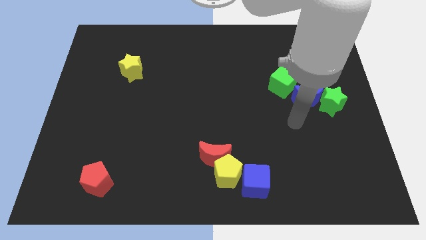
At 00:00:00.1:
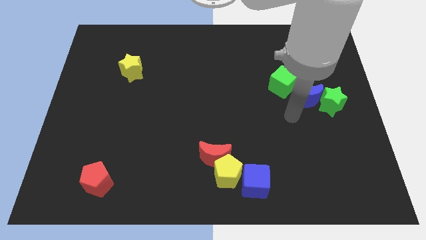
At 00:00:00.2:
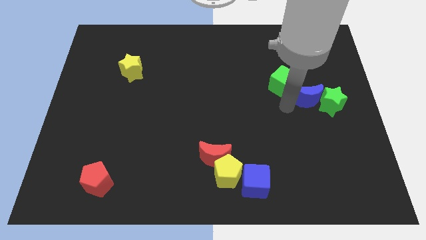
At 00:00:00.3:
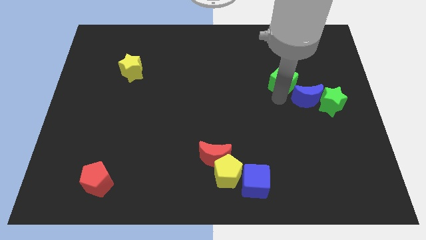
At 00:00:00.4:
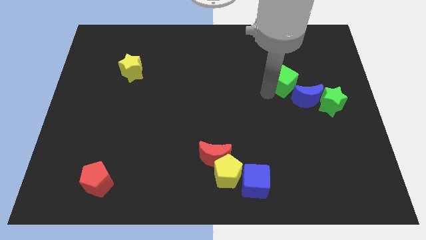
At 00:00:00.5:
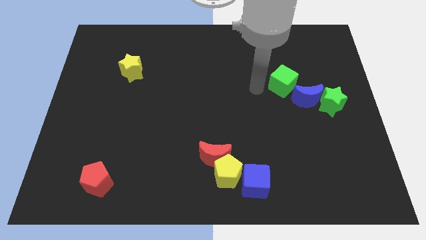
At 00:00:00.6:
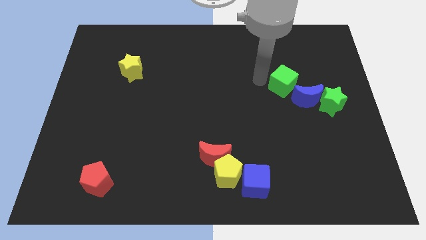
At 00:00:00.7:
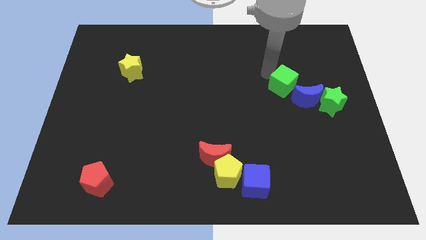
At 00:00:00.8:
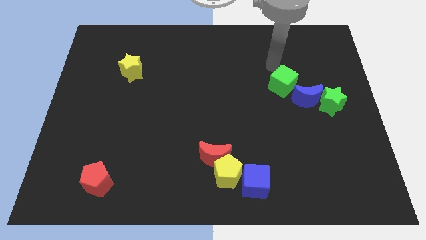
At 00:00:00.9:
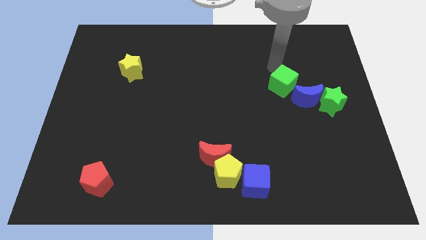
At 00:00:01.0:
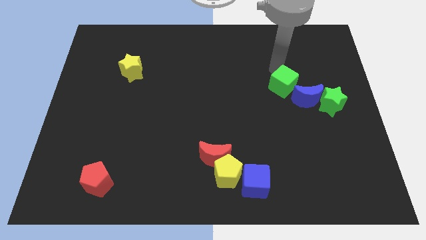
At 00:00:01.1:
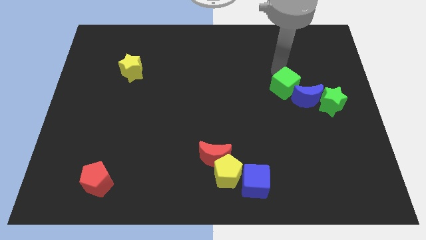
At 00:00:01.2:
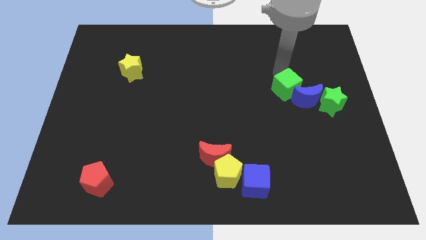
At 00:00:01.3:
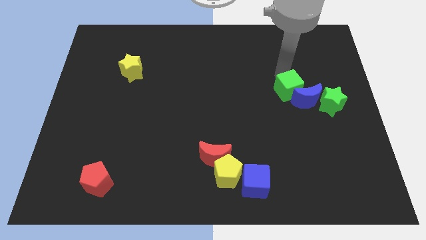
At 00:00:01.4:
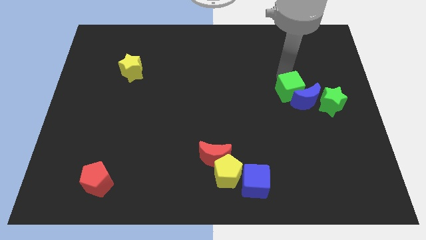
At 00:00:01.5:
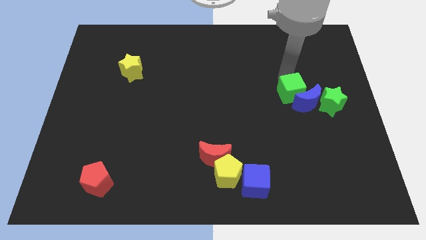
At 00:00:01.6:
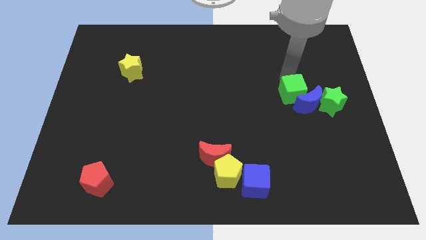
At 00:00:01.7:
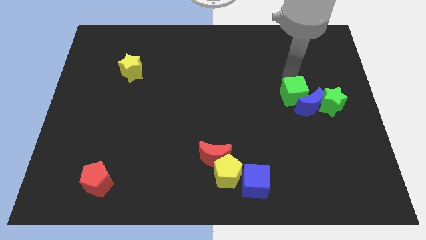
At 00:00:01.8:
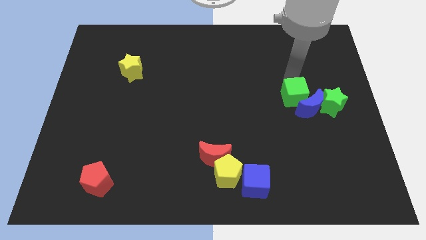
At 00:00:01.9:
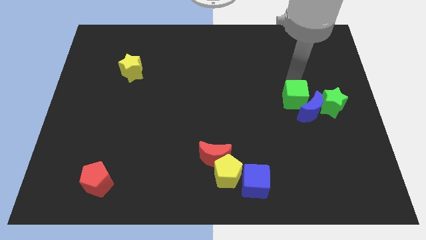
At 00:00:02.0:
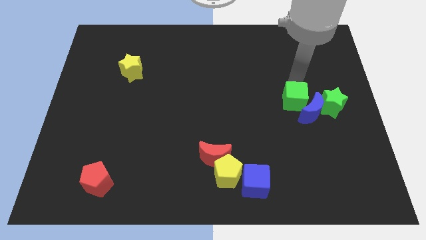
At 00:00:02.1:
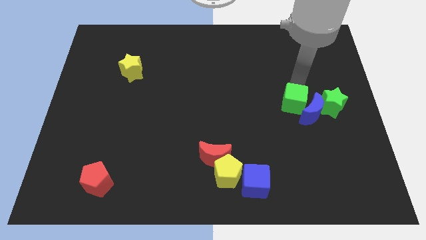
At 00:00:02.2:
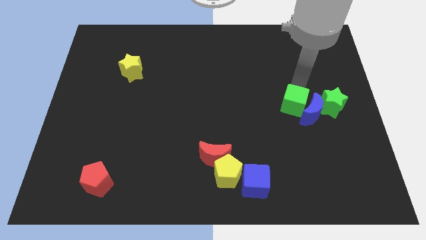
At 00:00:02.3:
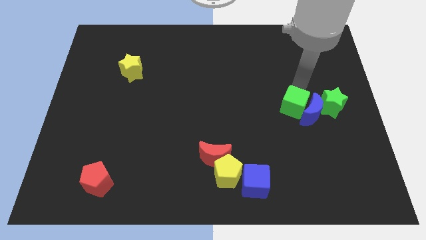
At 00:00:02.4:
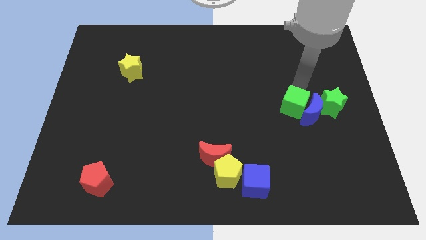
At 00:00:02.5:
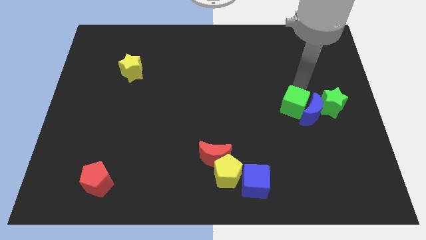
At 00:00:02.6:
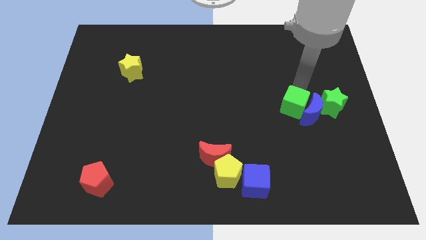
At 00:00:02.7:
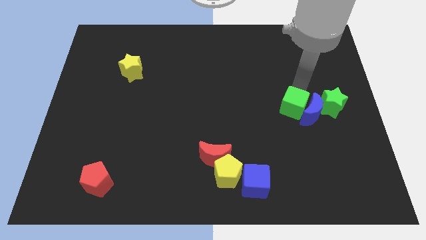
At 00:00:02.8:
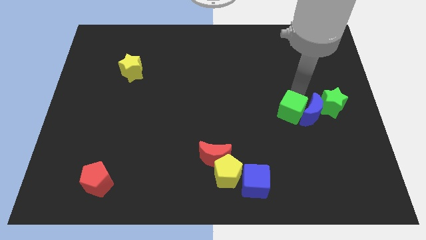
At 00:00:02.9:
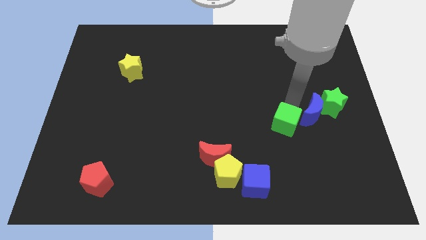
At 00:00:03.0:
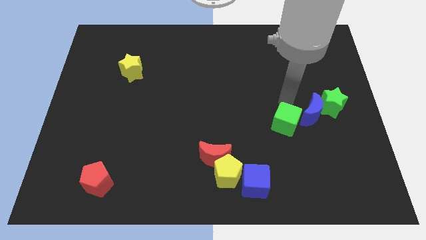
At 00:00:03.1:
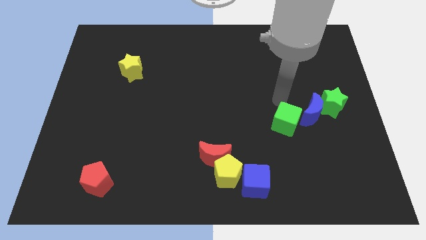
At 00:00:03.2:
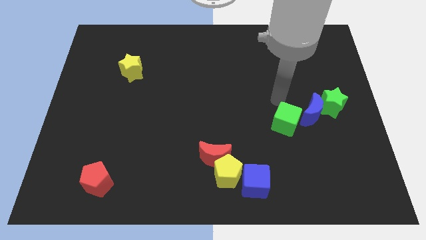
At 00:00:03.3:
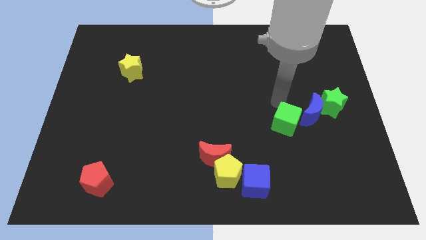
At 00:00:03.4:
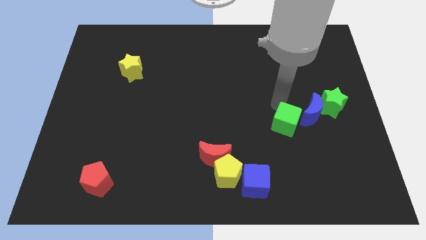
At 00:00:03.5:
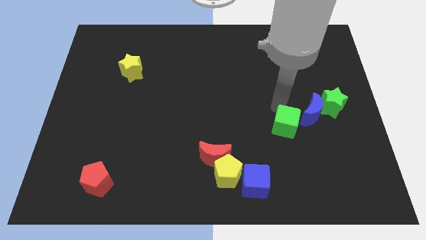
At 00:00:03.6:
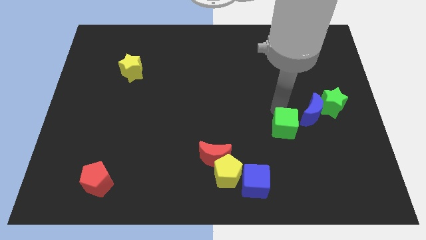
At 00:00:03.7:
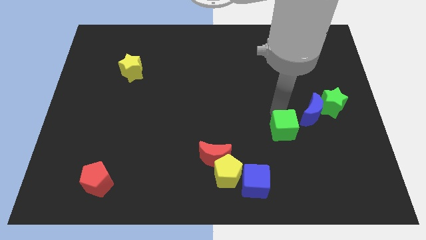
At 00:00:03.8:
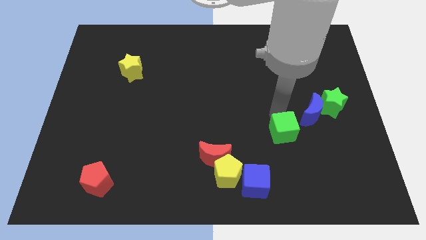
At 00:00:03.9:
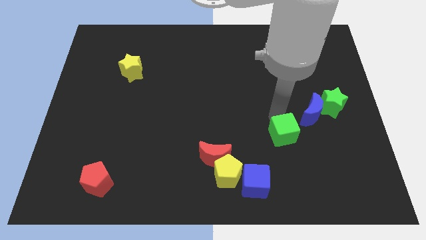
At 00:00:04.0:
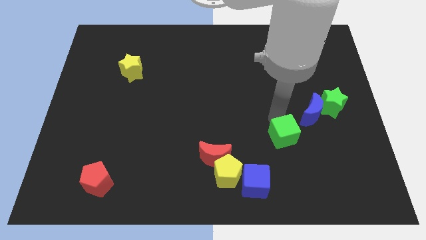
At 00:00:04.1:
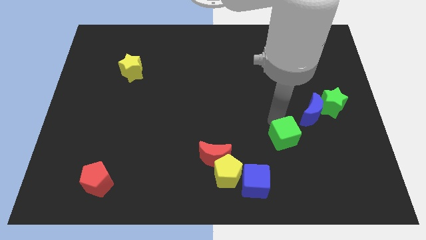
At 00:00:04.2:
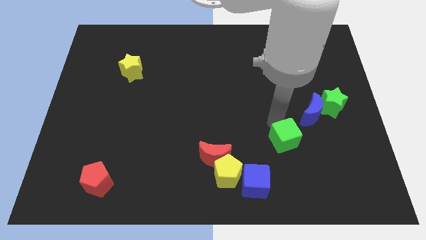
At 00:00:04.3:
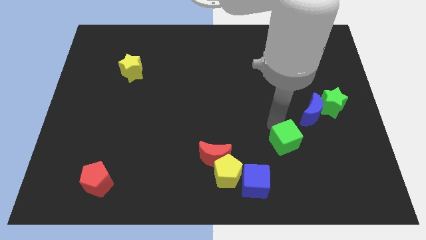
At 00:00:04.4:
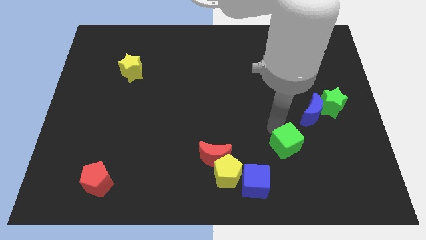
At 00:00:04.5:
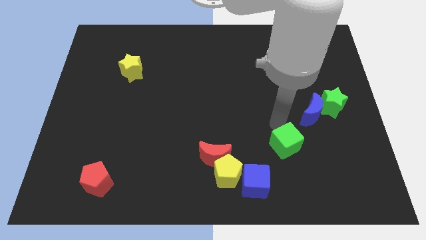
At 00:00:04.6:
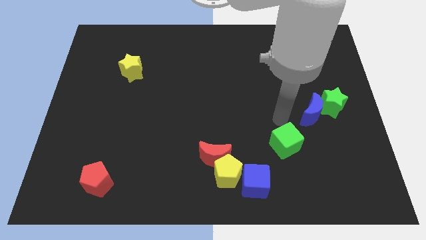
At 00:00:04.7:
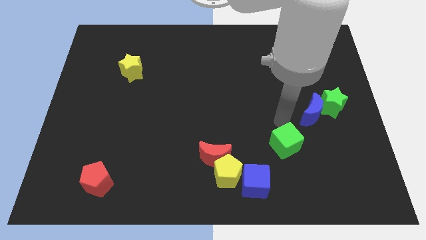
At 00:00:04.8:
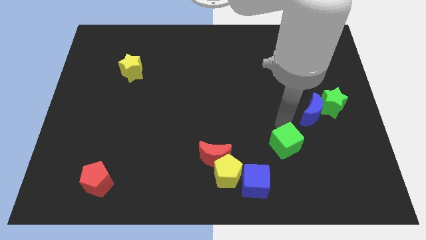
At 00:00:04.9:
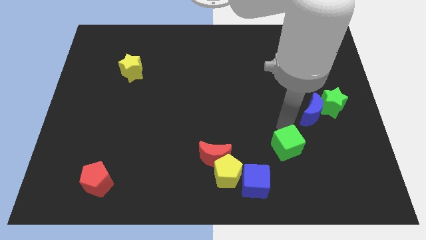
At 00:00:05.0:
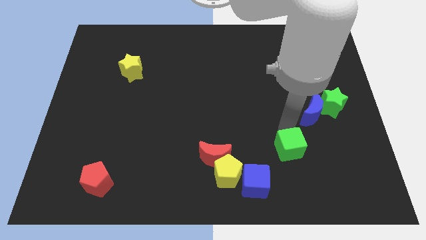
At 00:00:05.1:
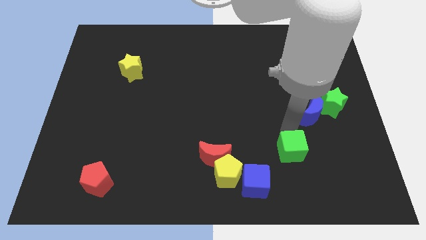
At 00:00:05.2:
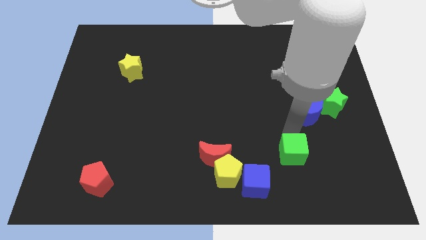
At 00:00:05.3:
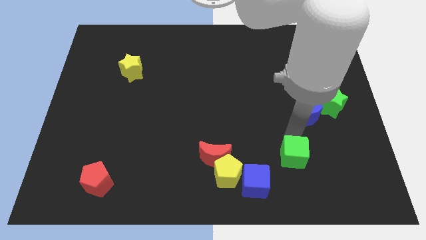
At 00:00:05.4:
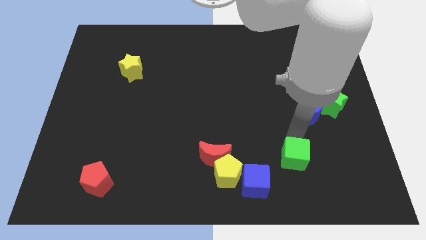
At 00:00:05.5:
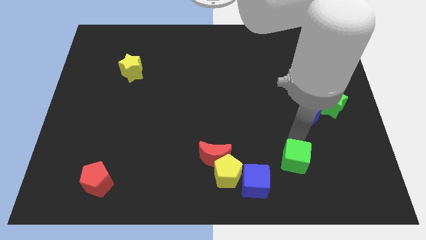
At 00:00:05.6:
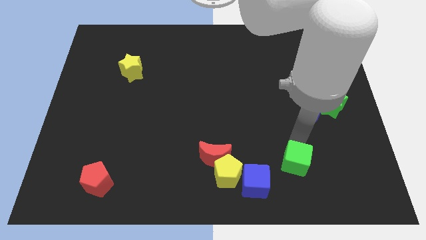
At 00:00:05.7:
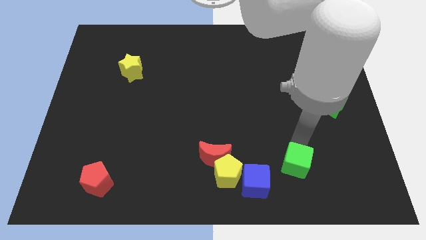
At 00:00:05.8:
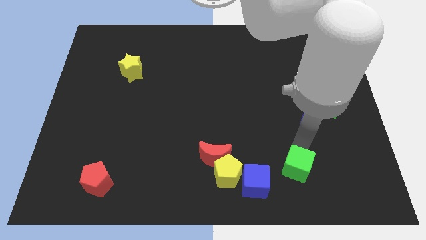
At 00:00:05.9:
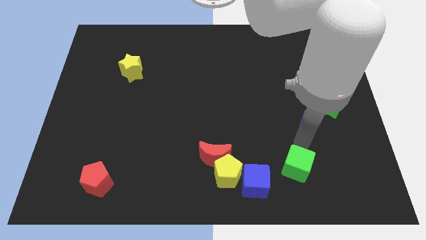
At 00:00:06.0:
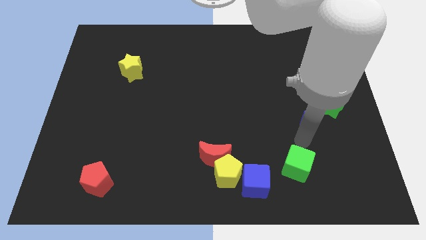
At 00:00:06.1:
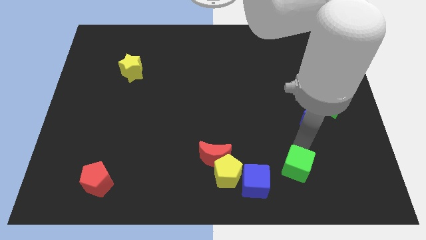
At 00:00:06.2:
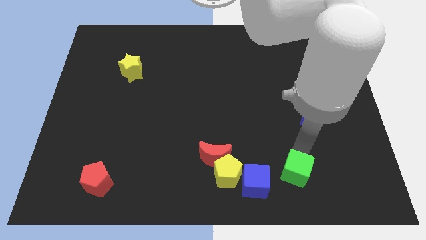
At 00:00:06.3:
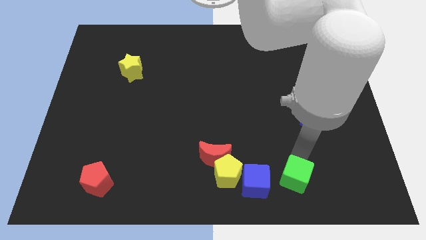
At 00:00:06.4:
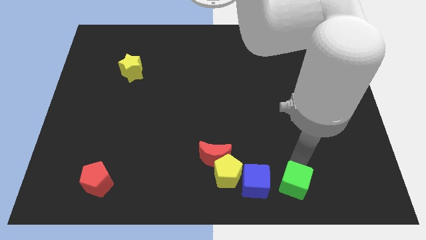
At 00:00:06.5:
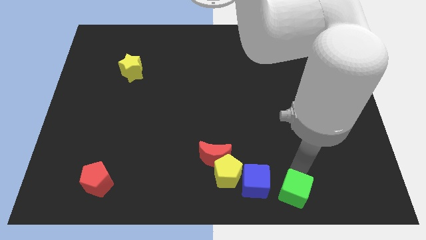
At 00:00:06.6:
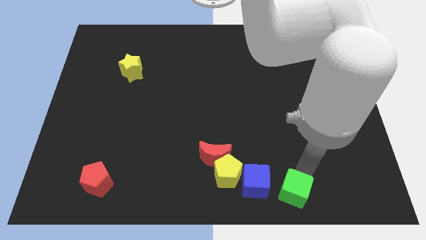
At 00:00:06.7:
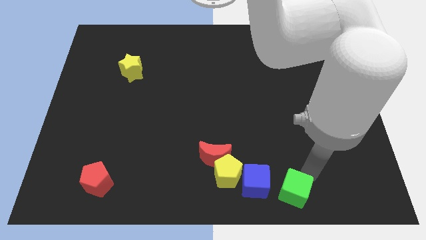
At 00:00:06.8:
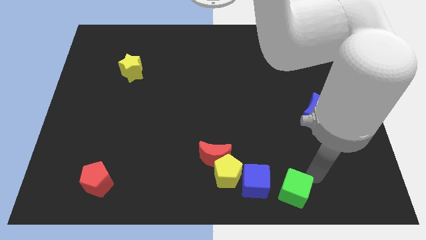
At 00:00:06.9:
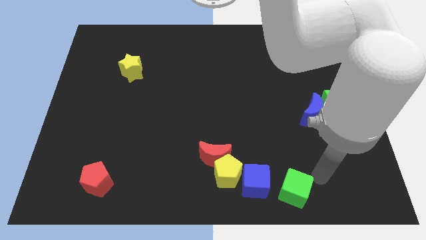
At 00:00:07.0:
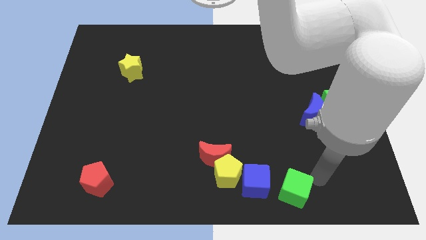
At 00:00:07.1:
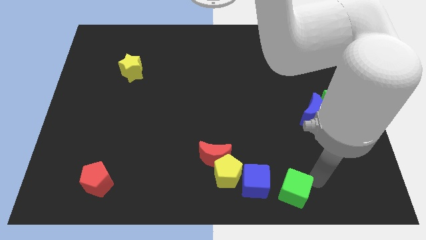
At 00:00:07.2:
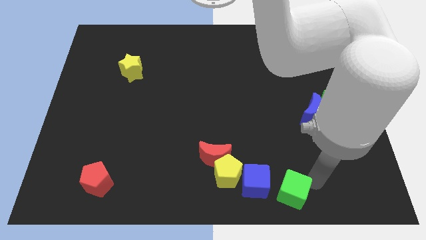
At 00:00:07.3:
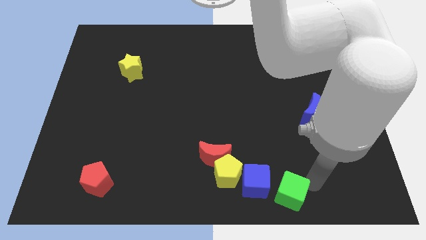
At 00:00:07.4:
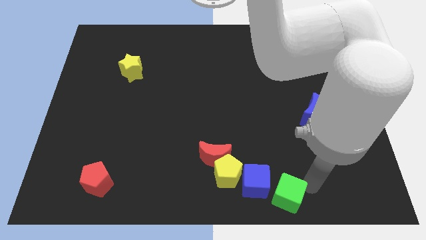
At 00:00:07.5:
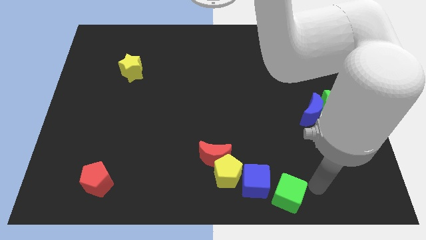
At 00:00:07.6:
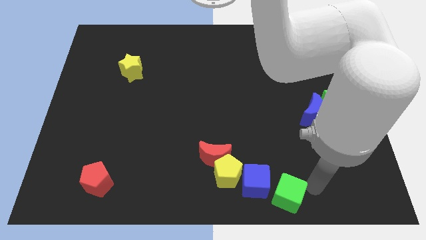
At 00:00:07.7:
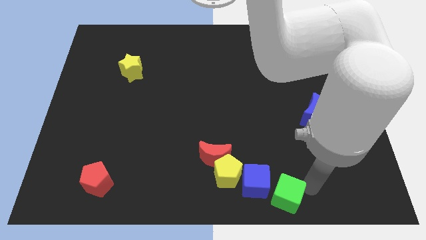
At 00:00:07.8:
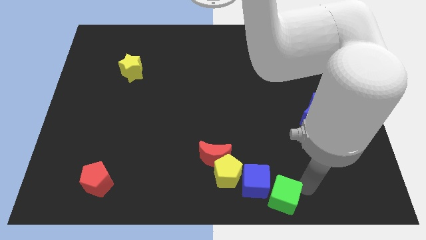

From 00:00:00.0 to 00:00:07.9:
move the green cube to the bottom side
